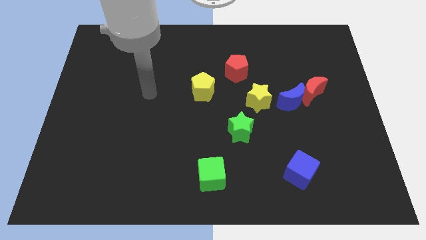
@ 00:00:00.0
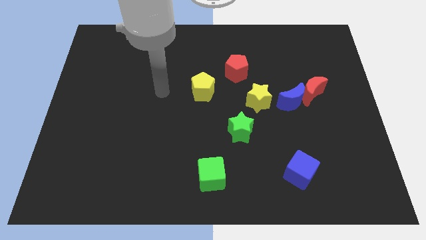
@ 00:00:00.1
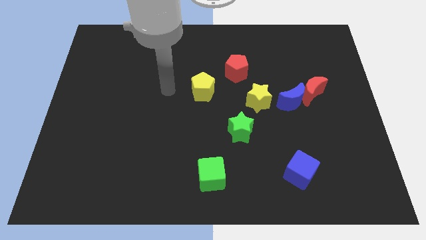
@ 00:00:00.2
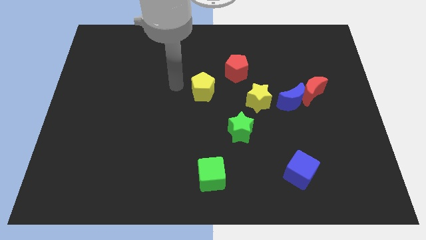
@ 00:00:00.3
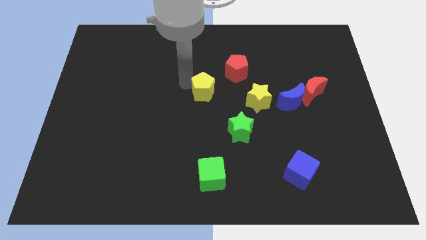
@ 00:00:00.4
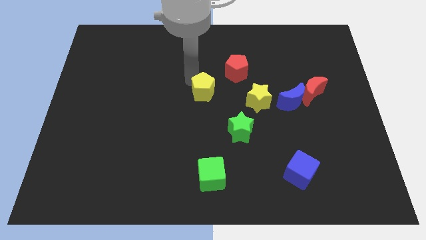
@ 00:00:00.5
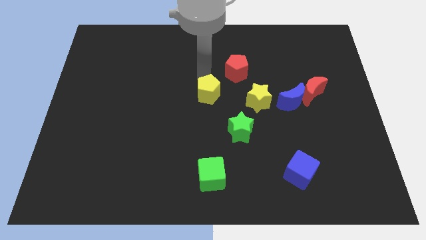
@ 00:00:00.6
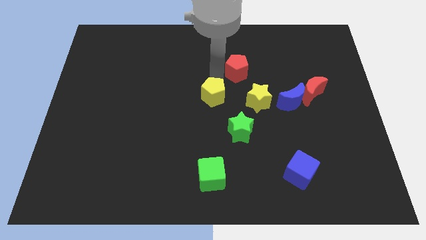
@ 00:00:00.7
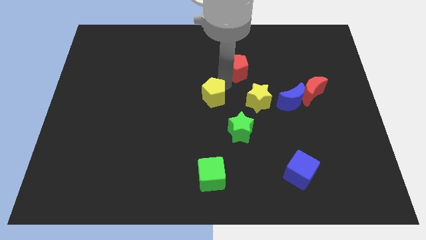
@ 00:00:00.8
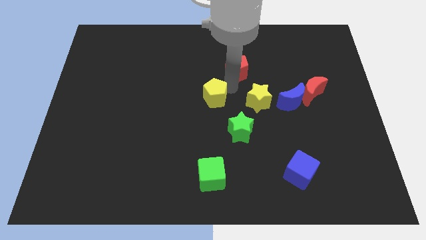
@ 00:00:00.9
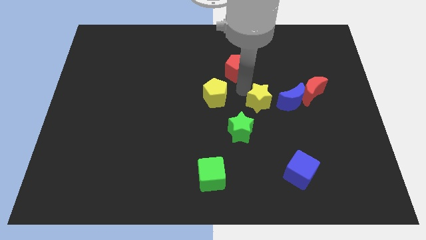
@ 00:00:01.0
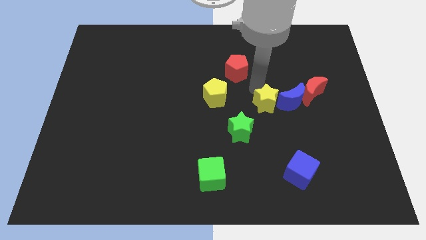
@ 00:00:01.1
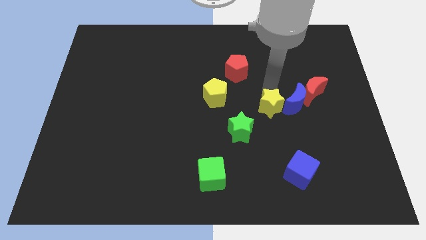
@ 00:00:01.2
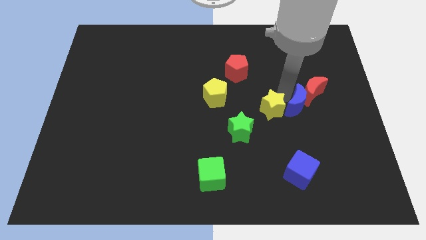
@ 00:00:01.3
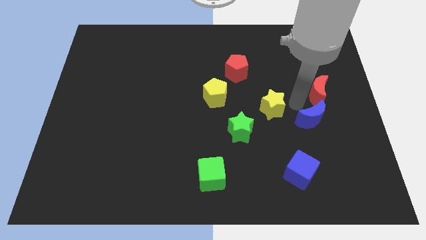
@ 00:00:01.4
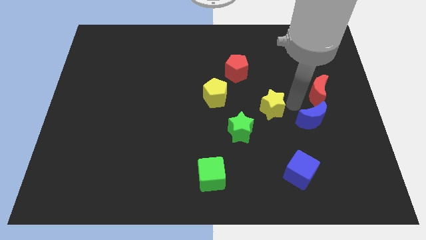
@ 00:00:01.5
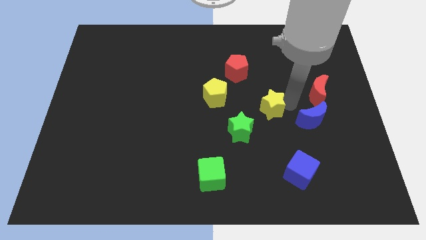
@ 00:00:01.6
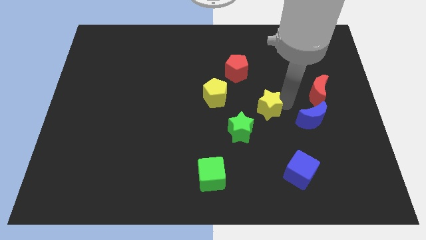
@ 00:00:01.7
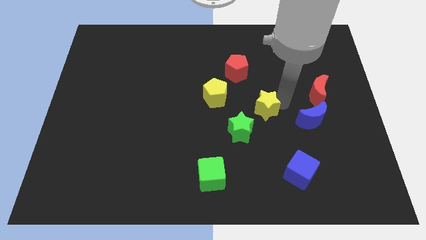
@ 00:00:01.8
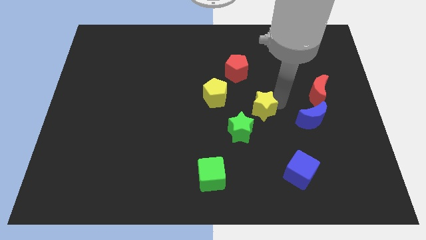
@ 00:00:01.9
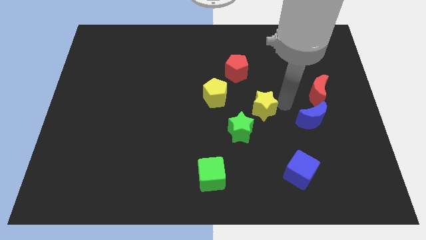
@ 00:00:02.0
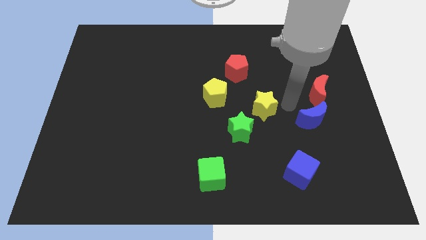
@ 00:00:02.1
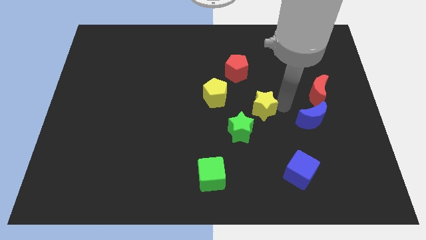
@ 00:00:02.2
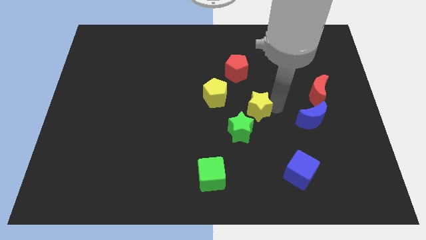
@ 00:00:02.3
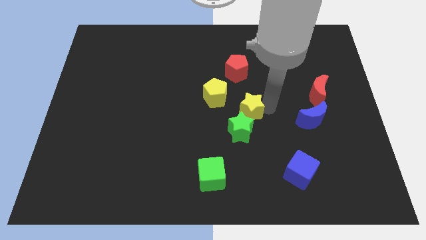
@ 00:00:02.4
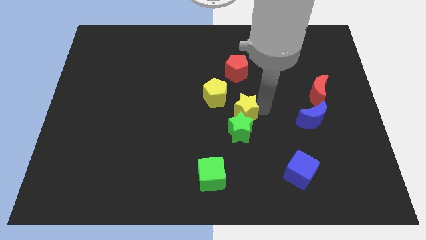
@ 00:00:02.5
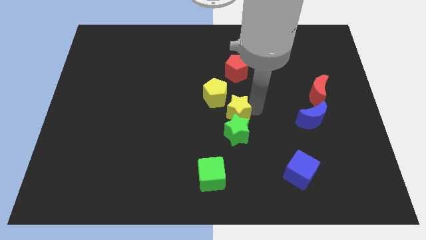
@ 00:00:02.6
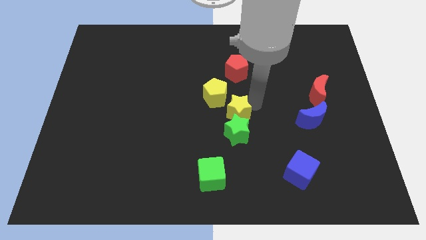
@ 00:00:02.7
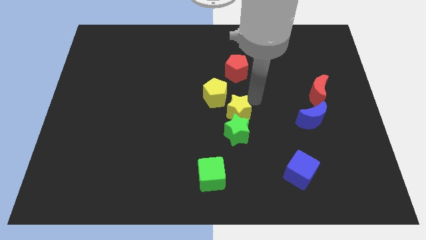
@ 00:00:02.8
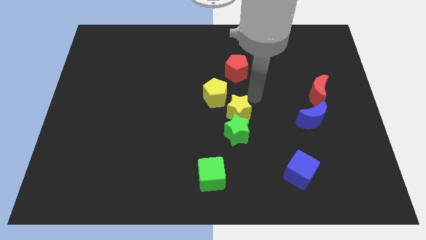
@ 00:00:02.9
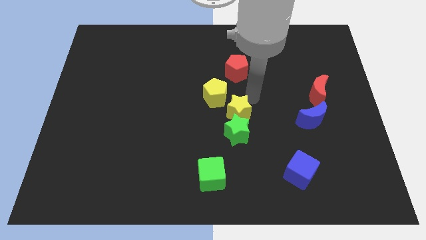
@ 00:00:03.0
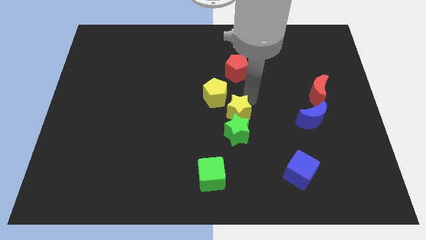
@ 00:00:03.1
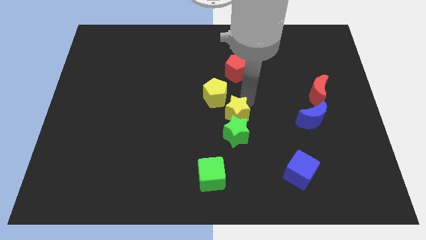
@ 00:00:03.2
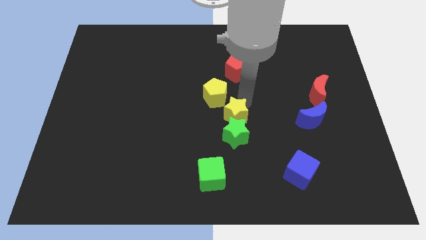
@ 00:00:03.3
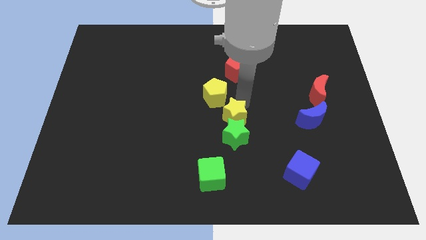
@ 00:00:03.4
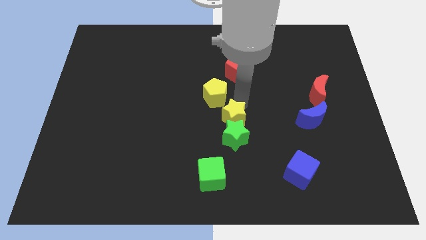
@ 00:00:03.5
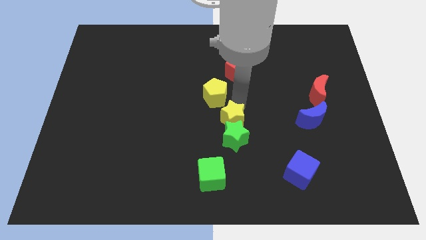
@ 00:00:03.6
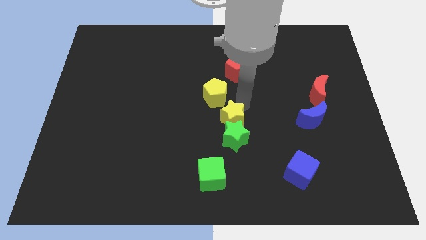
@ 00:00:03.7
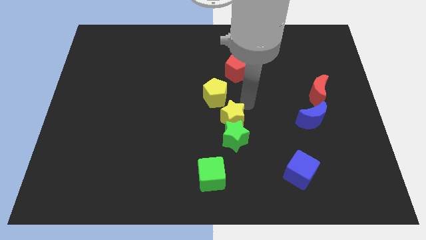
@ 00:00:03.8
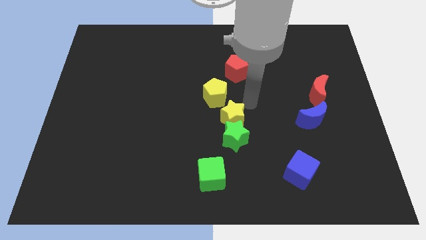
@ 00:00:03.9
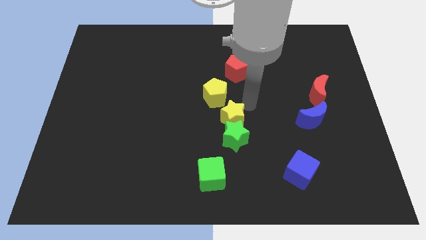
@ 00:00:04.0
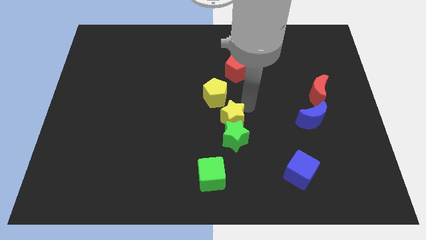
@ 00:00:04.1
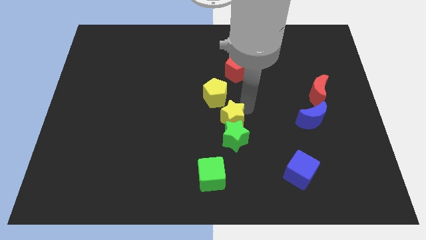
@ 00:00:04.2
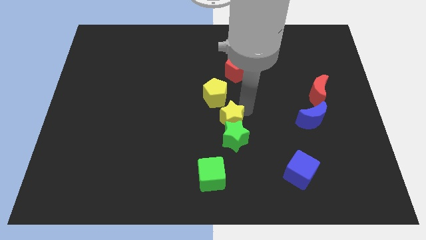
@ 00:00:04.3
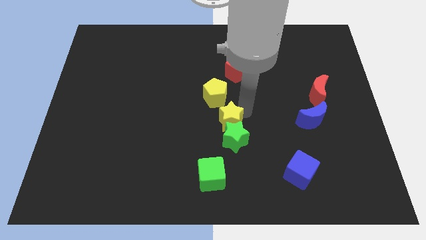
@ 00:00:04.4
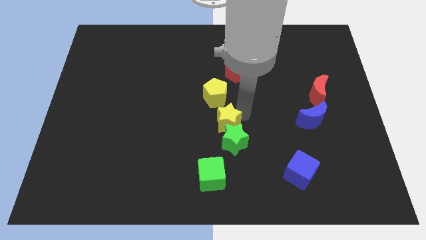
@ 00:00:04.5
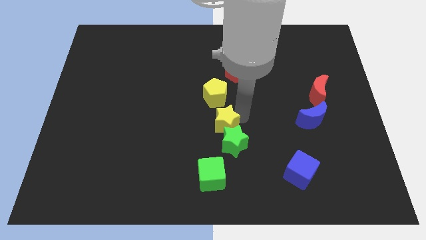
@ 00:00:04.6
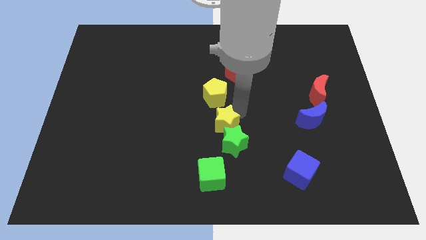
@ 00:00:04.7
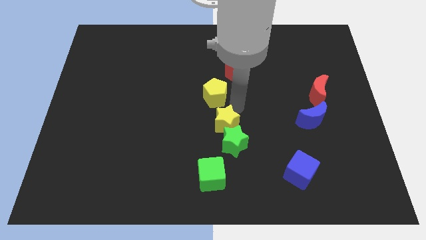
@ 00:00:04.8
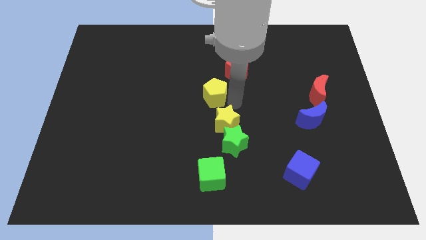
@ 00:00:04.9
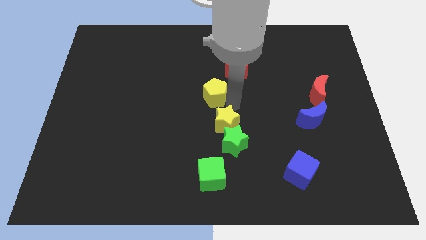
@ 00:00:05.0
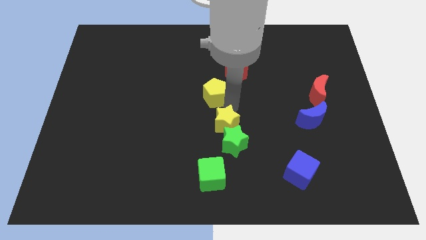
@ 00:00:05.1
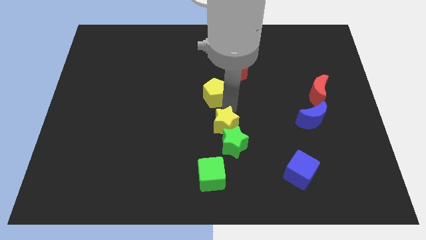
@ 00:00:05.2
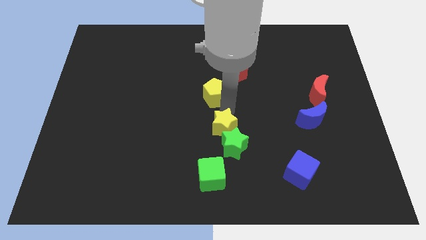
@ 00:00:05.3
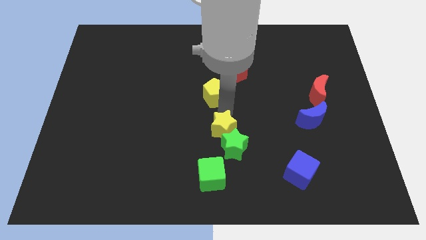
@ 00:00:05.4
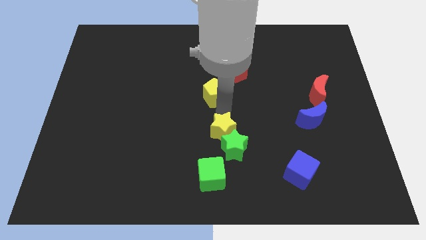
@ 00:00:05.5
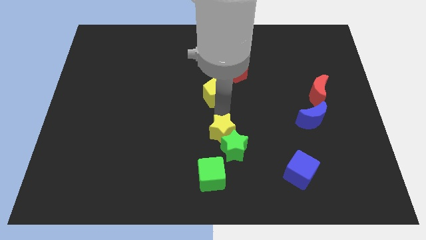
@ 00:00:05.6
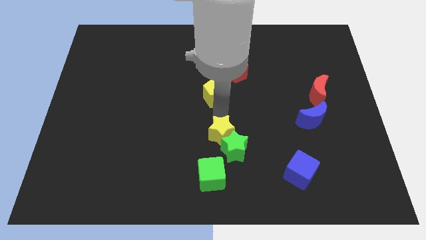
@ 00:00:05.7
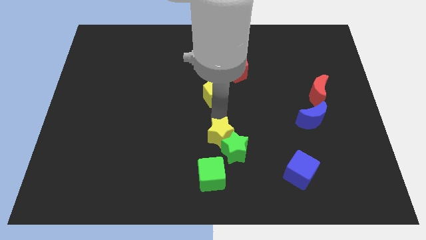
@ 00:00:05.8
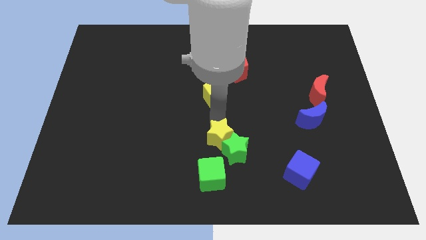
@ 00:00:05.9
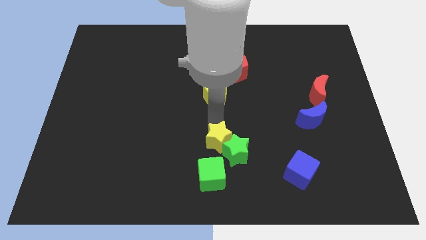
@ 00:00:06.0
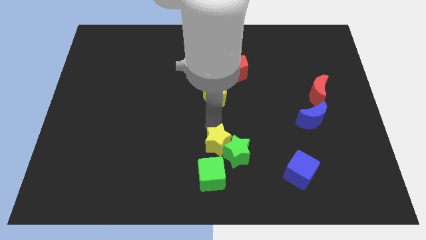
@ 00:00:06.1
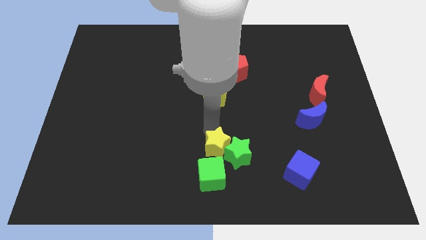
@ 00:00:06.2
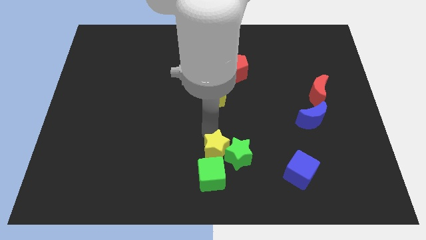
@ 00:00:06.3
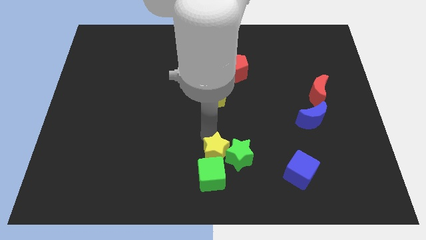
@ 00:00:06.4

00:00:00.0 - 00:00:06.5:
slide the yellow star to the green cube

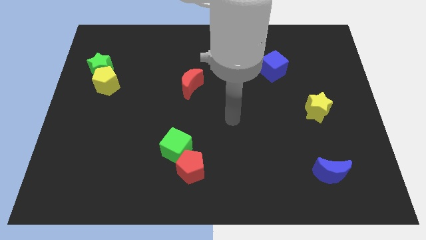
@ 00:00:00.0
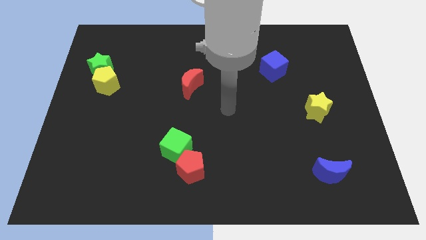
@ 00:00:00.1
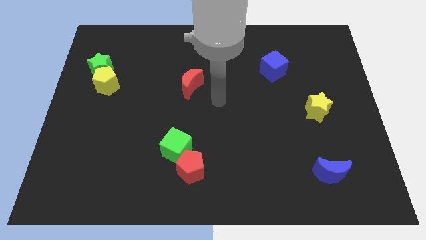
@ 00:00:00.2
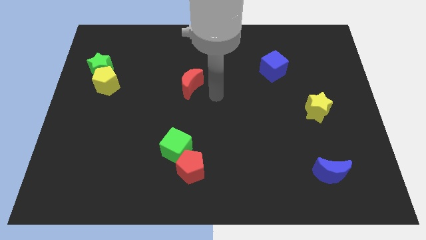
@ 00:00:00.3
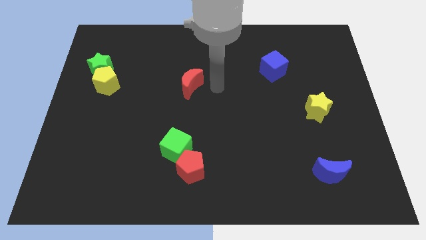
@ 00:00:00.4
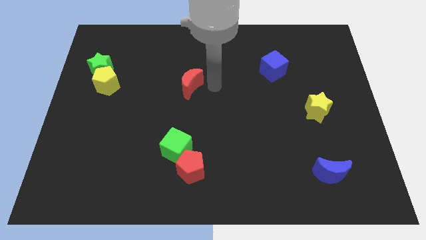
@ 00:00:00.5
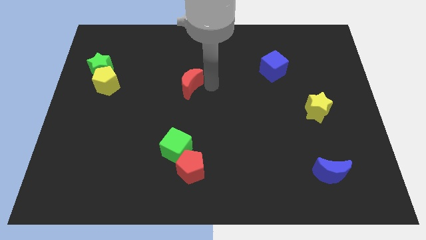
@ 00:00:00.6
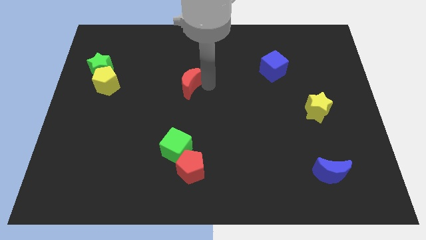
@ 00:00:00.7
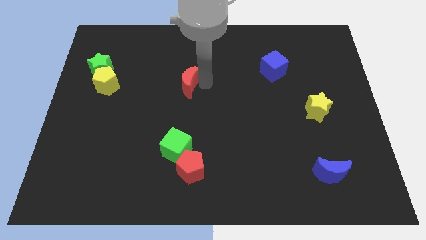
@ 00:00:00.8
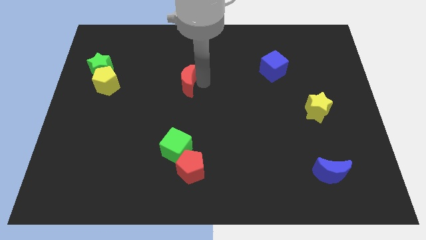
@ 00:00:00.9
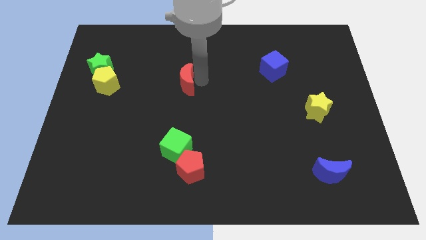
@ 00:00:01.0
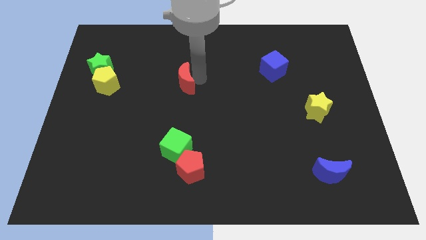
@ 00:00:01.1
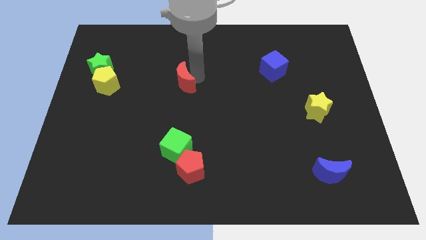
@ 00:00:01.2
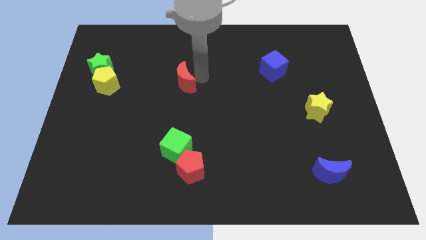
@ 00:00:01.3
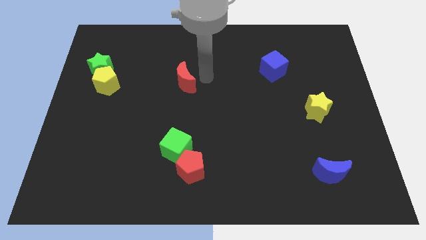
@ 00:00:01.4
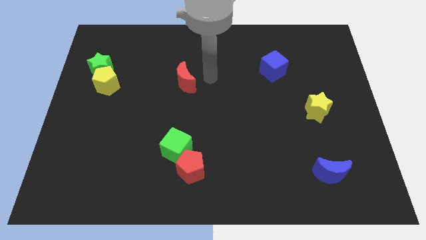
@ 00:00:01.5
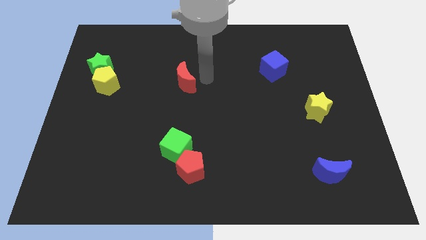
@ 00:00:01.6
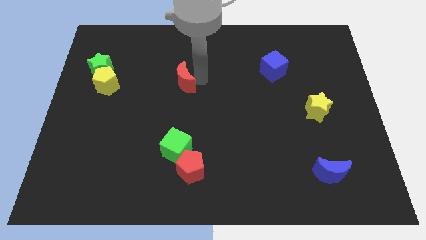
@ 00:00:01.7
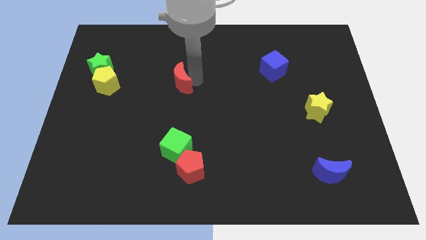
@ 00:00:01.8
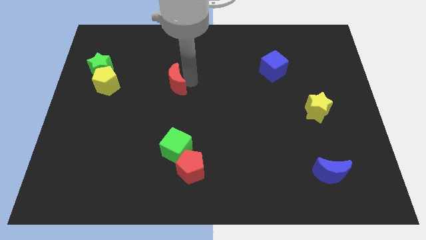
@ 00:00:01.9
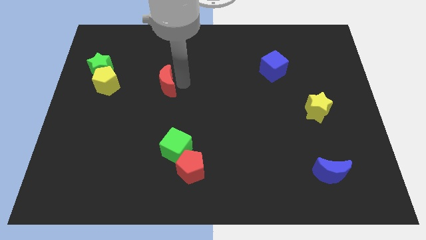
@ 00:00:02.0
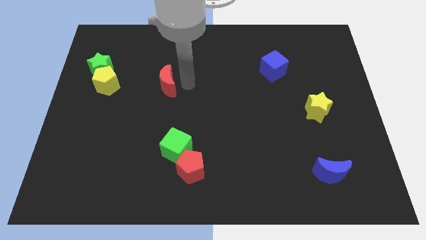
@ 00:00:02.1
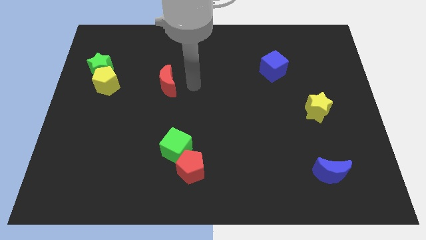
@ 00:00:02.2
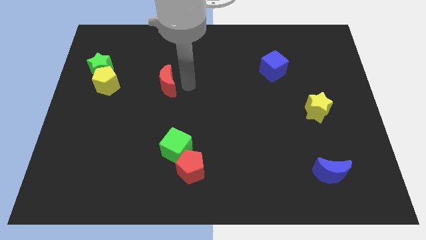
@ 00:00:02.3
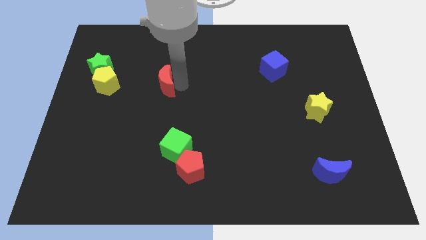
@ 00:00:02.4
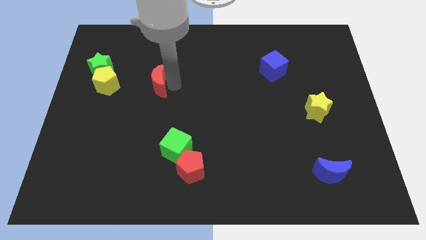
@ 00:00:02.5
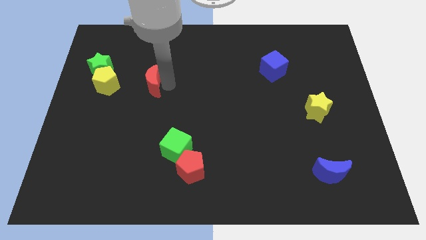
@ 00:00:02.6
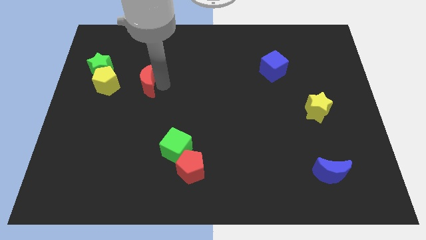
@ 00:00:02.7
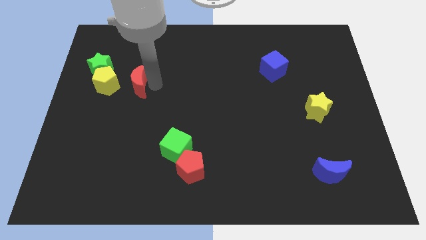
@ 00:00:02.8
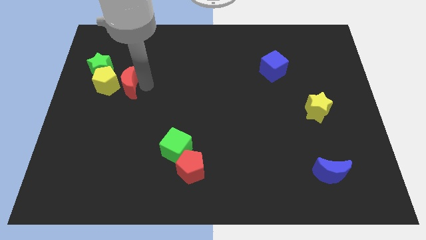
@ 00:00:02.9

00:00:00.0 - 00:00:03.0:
move the red moon to the yellow pentagon
